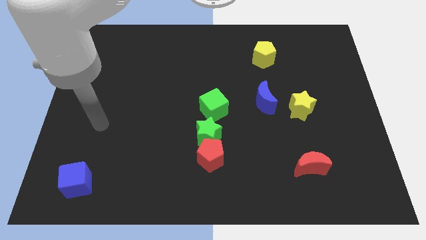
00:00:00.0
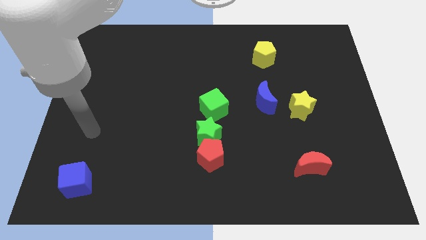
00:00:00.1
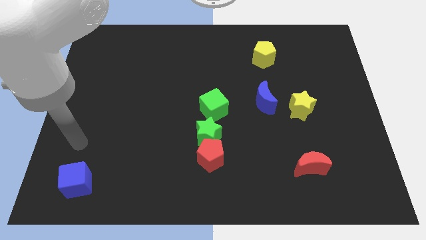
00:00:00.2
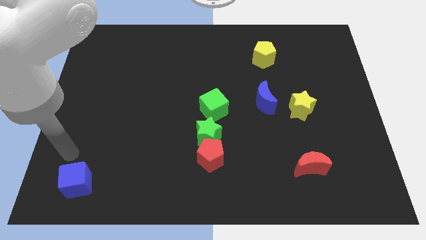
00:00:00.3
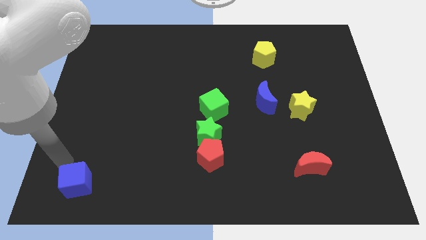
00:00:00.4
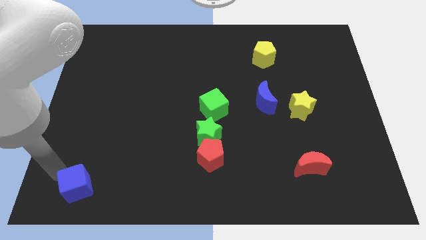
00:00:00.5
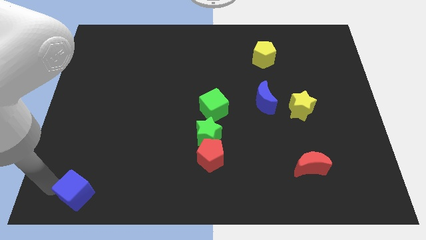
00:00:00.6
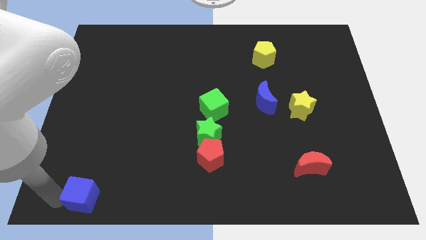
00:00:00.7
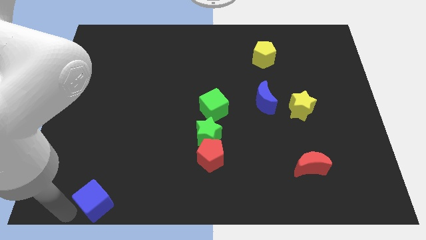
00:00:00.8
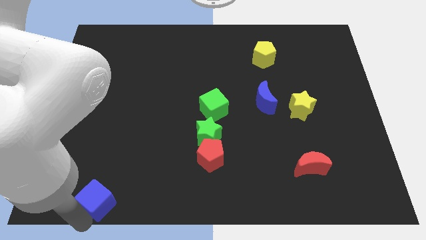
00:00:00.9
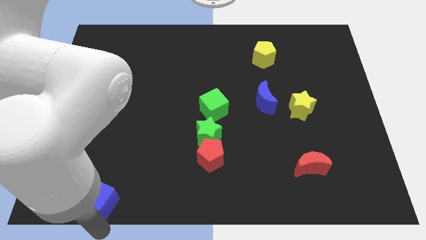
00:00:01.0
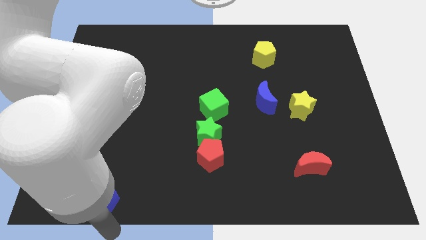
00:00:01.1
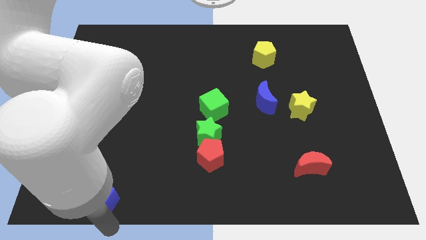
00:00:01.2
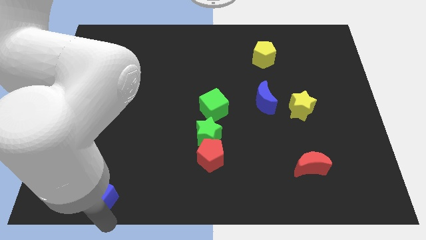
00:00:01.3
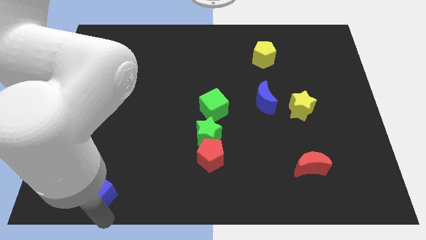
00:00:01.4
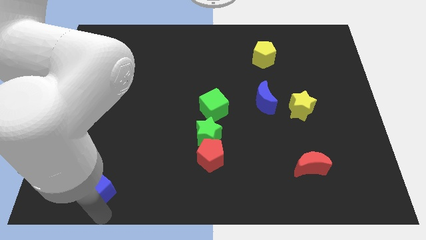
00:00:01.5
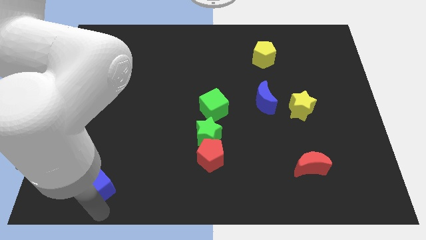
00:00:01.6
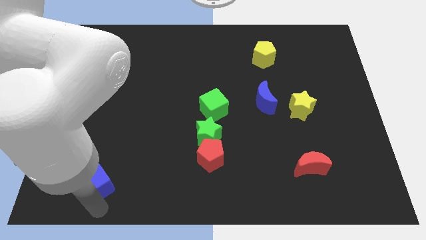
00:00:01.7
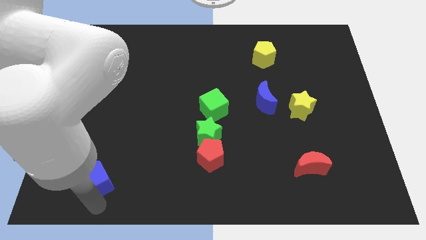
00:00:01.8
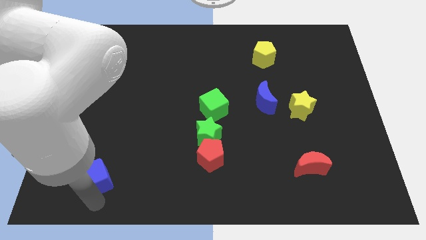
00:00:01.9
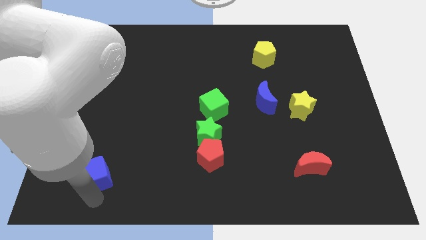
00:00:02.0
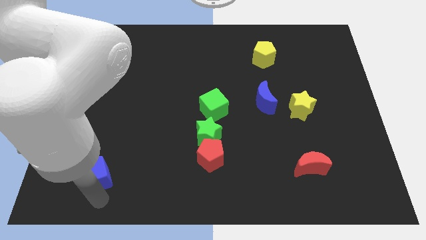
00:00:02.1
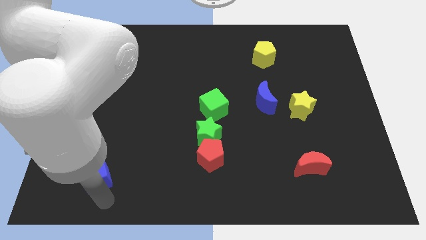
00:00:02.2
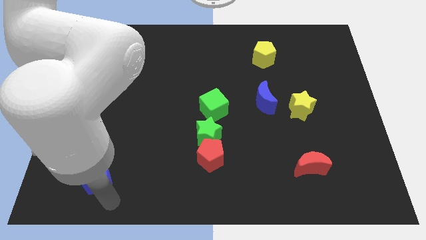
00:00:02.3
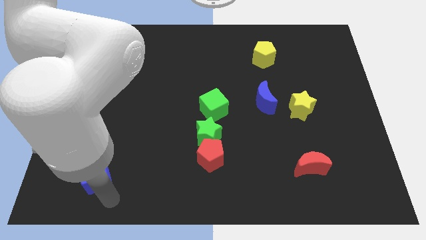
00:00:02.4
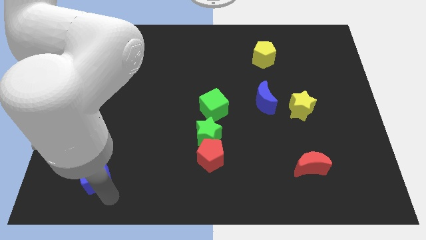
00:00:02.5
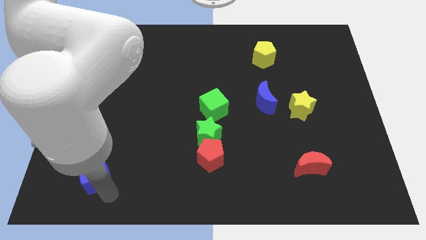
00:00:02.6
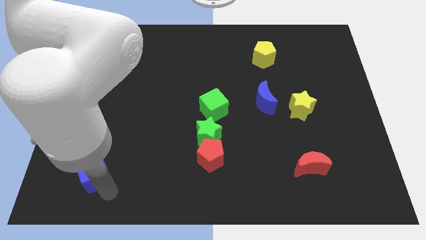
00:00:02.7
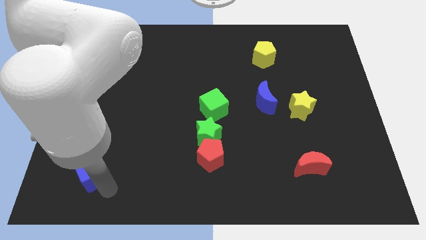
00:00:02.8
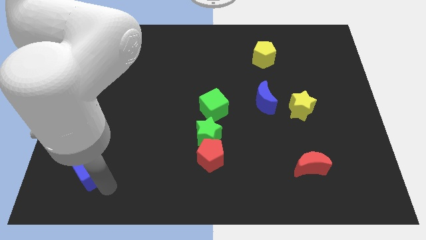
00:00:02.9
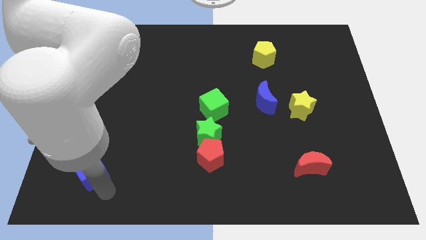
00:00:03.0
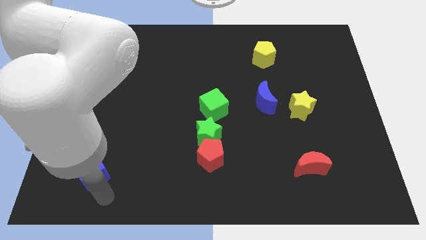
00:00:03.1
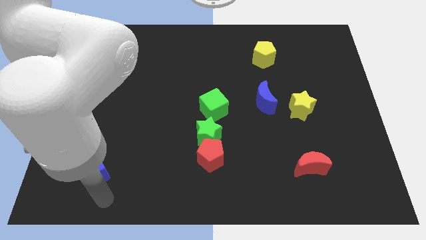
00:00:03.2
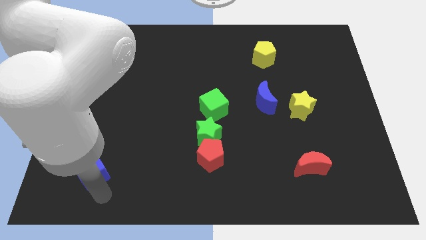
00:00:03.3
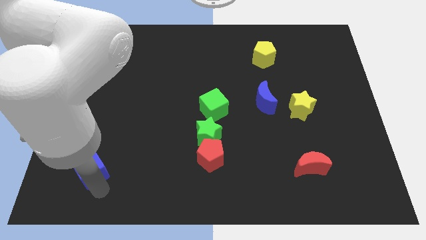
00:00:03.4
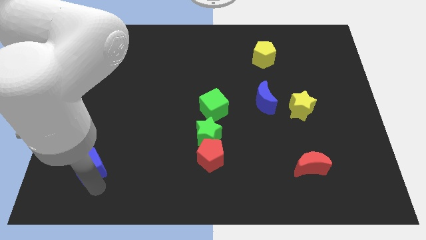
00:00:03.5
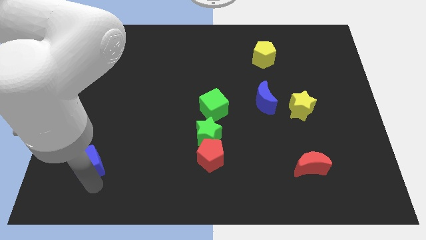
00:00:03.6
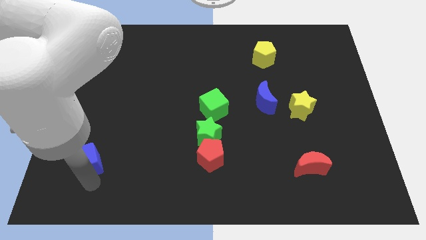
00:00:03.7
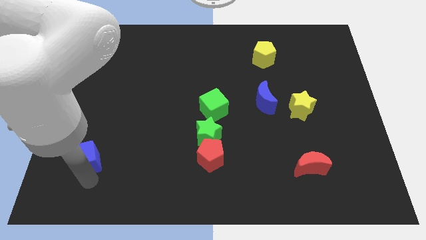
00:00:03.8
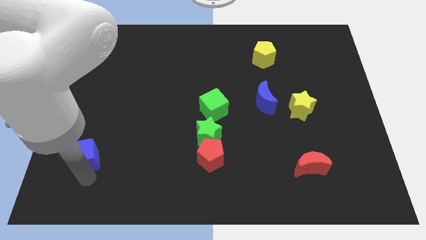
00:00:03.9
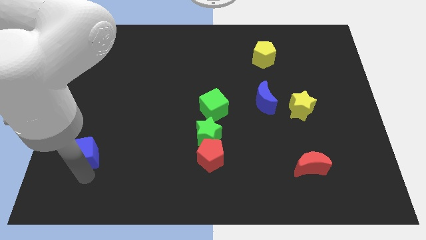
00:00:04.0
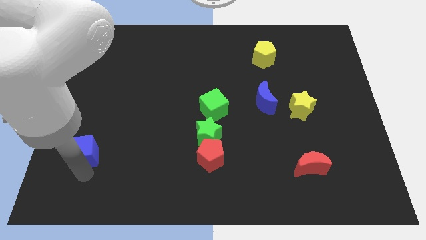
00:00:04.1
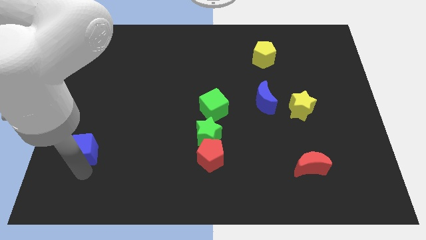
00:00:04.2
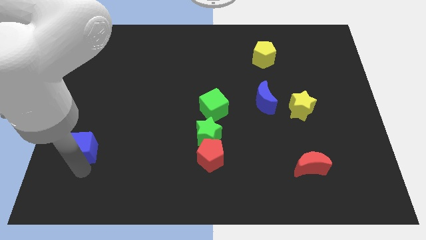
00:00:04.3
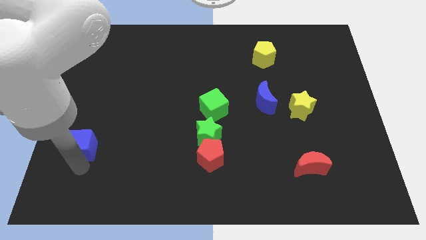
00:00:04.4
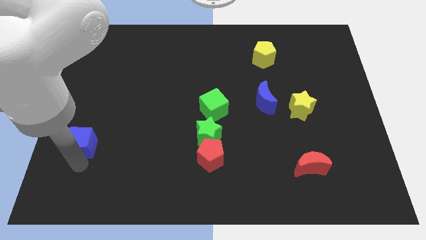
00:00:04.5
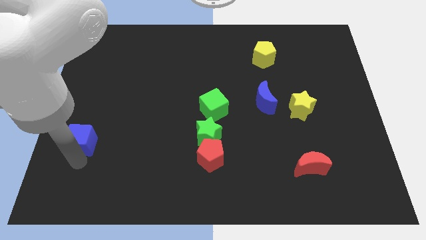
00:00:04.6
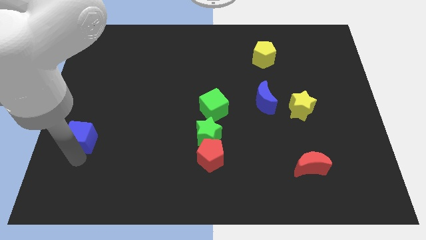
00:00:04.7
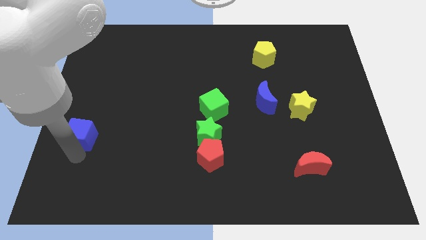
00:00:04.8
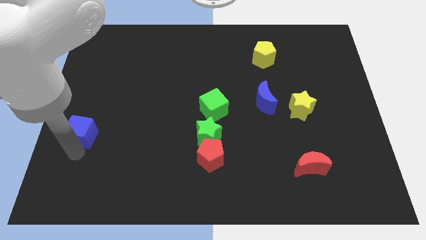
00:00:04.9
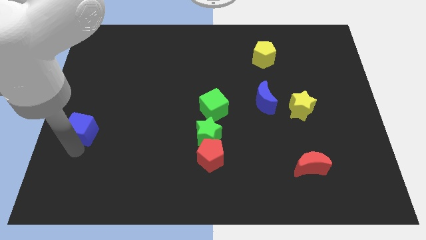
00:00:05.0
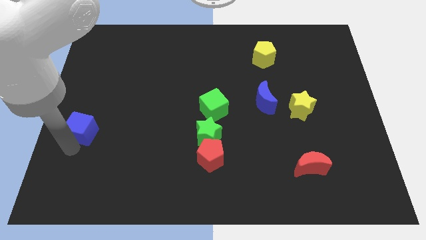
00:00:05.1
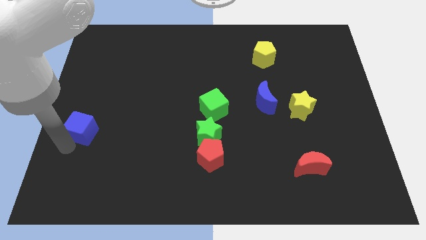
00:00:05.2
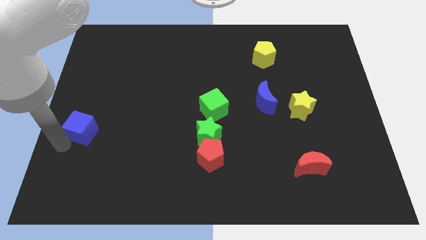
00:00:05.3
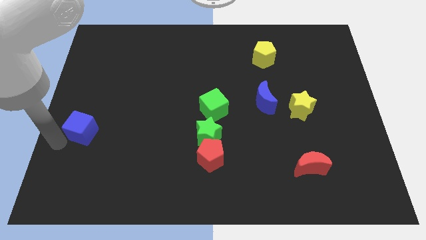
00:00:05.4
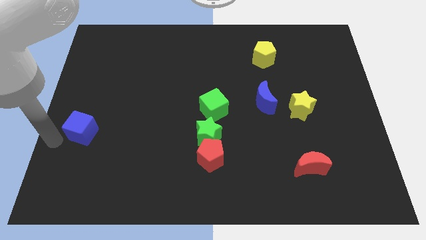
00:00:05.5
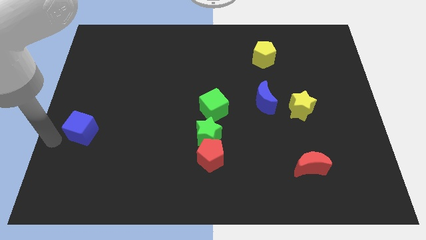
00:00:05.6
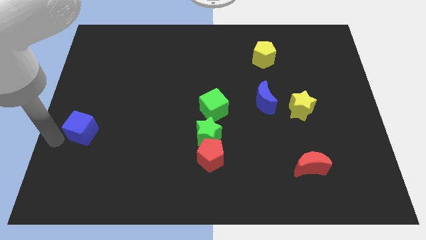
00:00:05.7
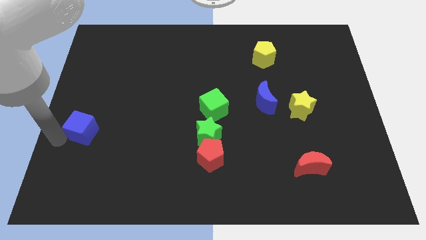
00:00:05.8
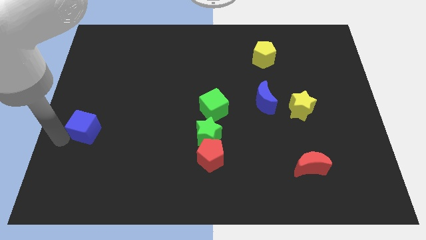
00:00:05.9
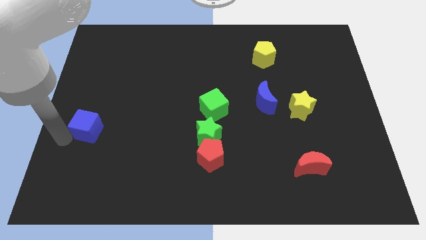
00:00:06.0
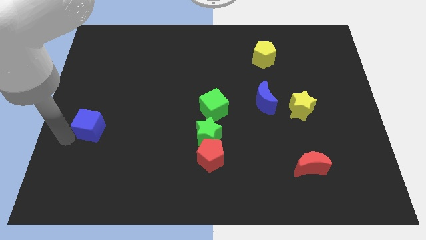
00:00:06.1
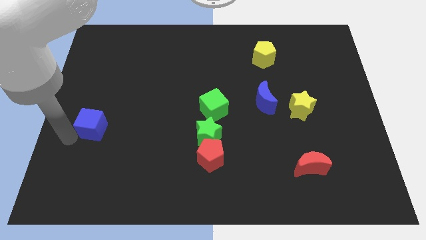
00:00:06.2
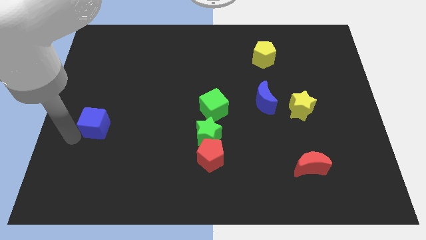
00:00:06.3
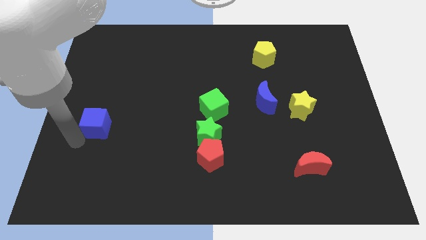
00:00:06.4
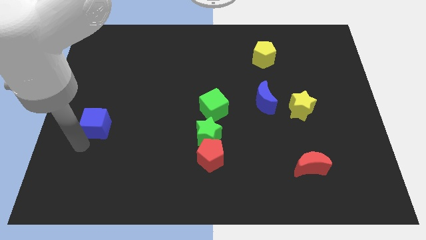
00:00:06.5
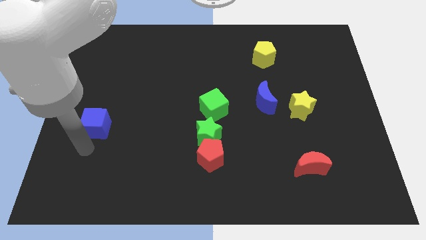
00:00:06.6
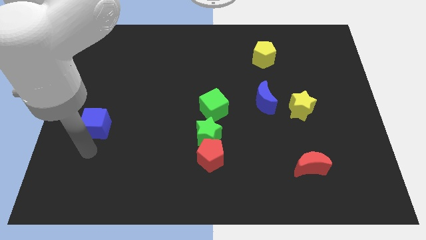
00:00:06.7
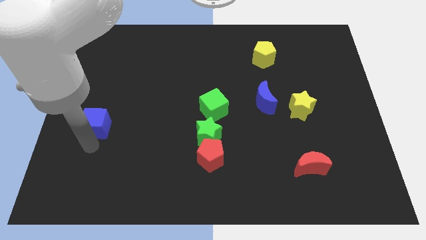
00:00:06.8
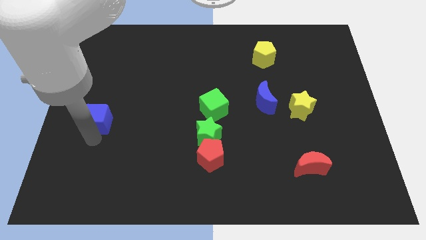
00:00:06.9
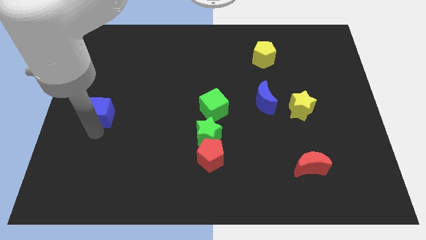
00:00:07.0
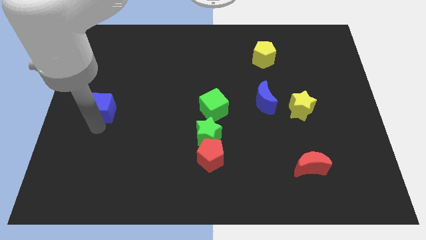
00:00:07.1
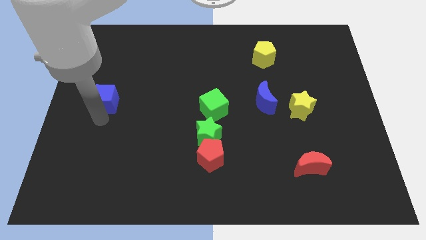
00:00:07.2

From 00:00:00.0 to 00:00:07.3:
move the blue cube up

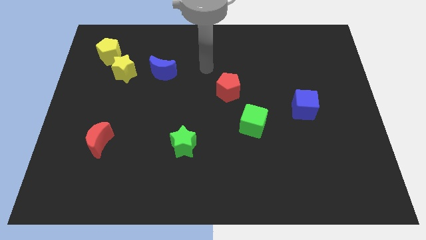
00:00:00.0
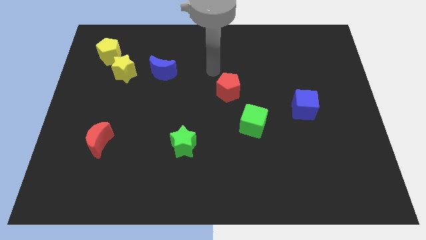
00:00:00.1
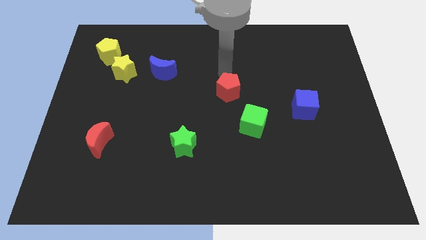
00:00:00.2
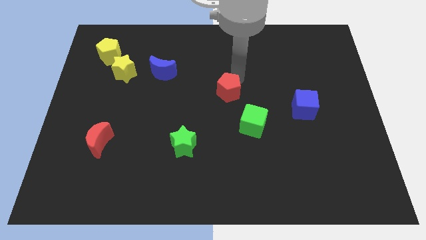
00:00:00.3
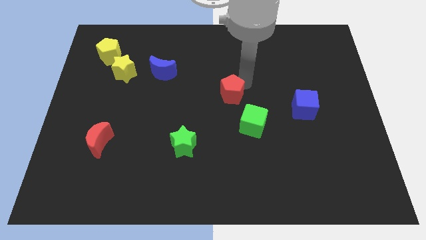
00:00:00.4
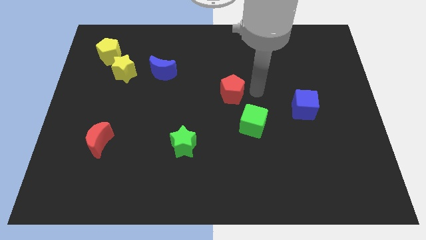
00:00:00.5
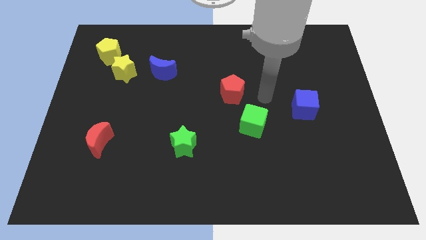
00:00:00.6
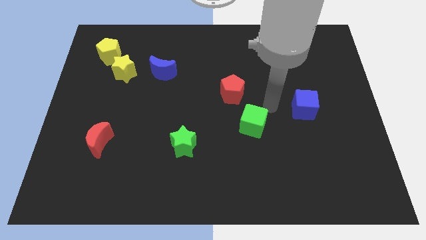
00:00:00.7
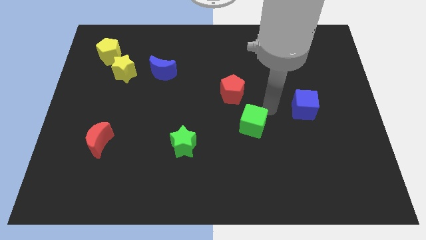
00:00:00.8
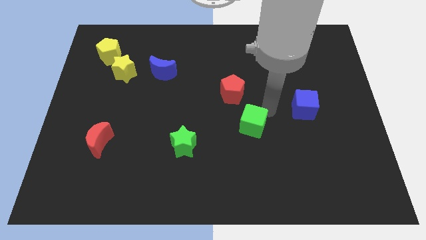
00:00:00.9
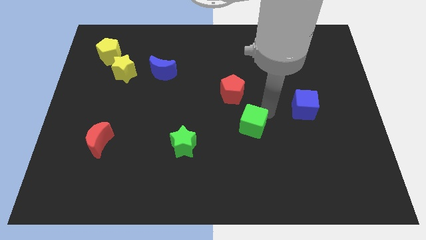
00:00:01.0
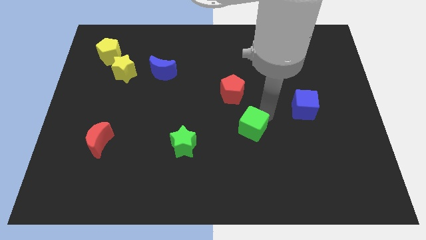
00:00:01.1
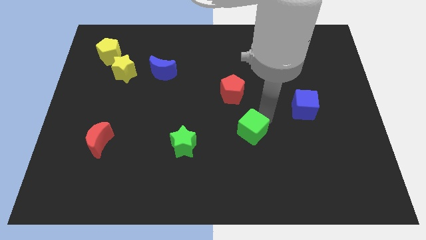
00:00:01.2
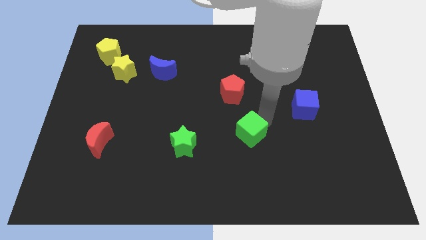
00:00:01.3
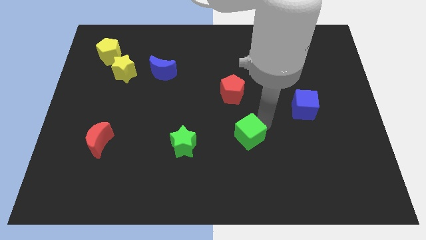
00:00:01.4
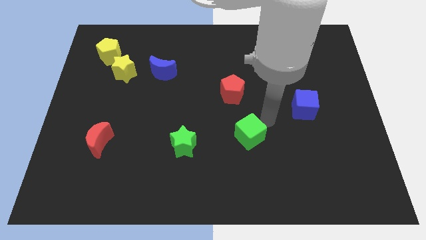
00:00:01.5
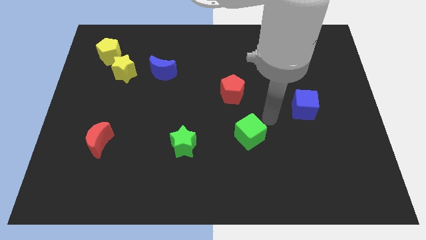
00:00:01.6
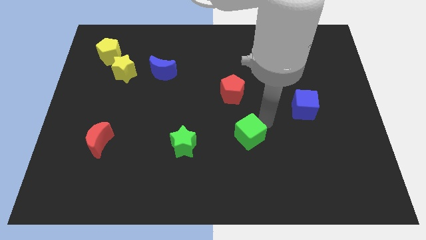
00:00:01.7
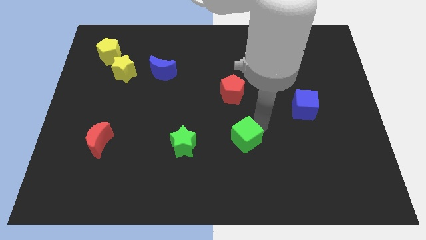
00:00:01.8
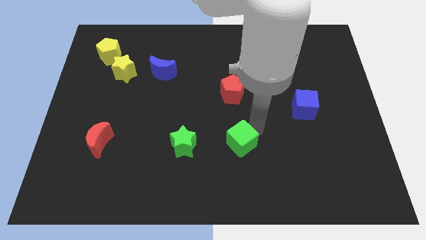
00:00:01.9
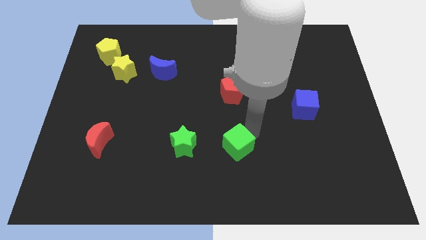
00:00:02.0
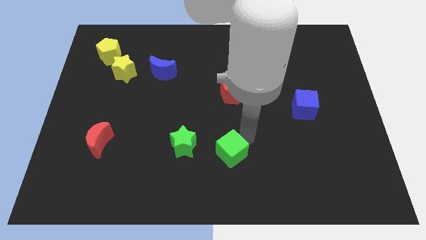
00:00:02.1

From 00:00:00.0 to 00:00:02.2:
slightly push the green cube diagonally down and left
